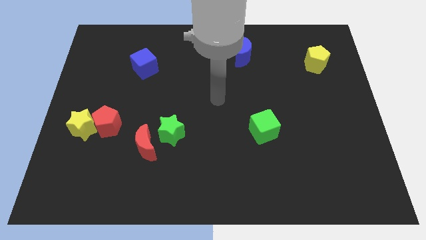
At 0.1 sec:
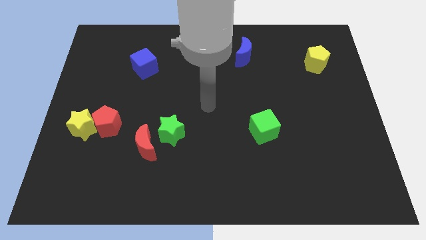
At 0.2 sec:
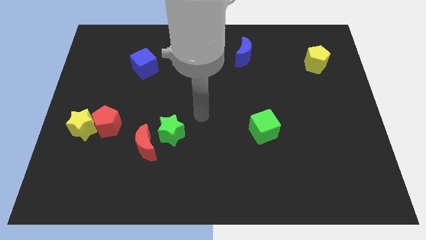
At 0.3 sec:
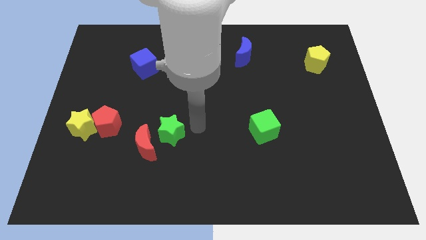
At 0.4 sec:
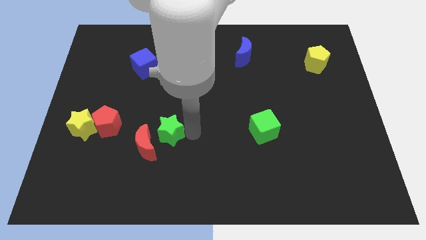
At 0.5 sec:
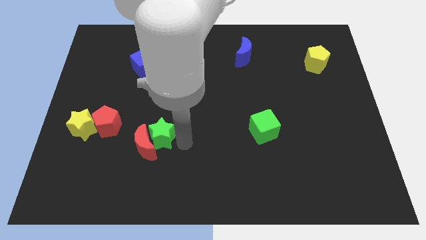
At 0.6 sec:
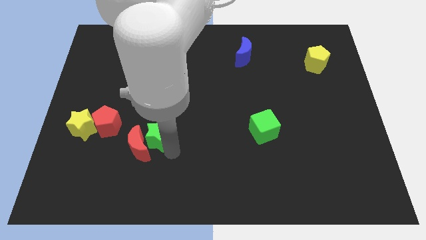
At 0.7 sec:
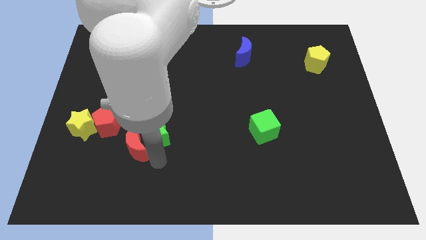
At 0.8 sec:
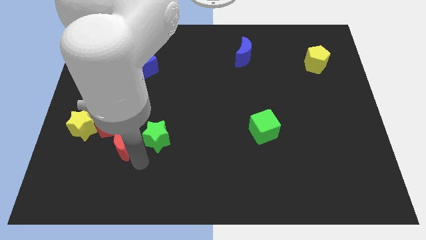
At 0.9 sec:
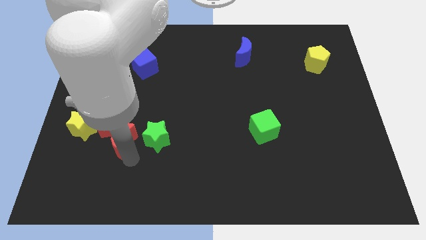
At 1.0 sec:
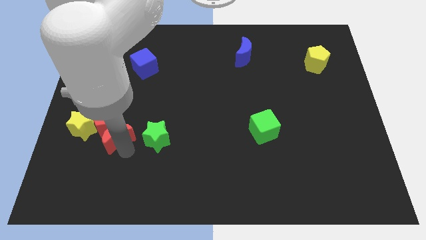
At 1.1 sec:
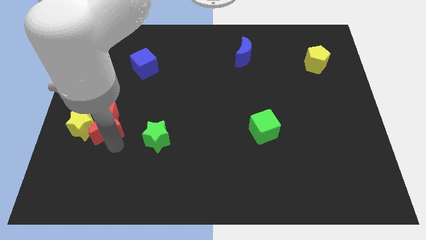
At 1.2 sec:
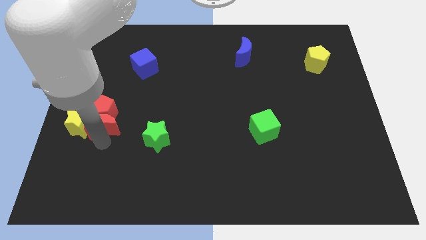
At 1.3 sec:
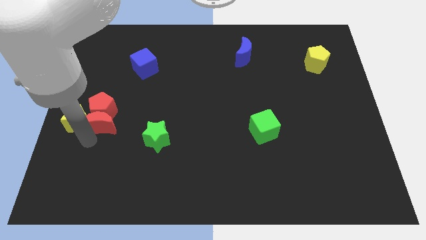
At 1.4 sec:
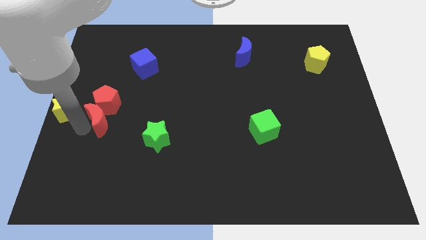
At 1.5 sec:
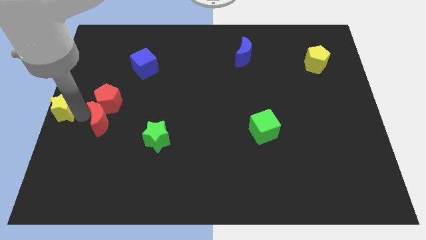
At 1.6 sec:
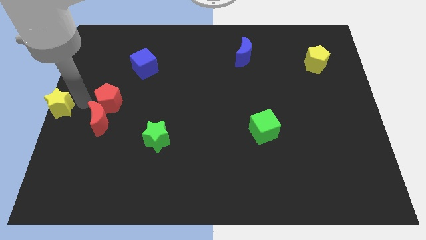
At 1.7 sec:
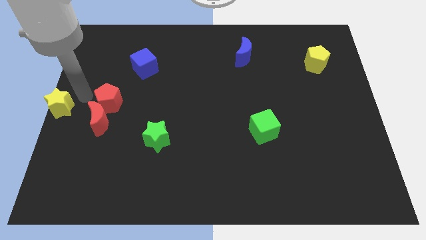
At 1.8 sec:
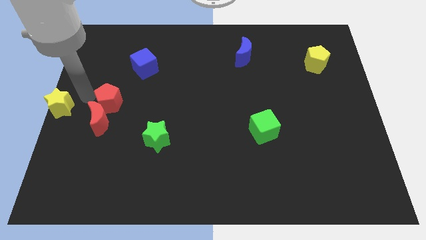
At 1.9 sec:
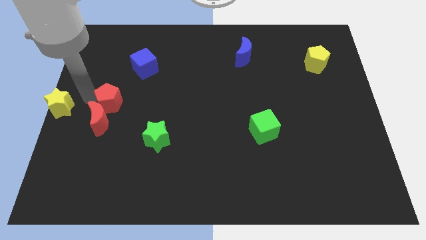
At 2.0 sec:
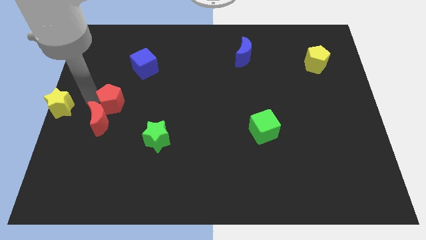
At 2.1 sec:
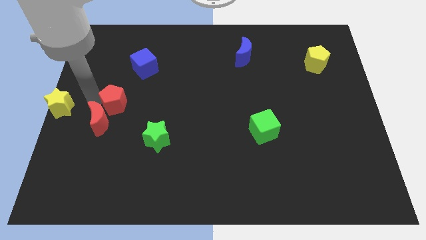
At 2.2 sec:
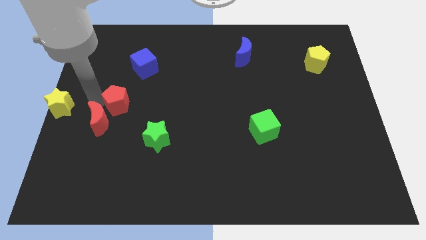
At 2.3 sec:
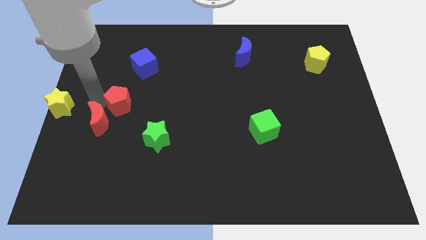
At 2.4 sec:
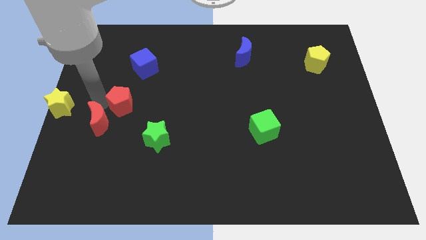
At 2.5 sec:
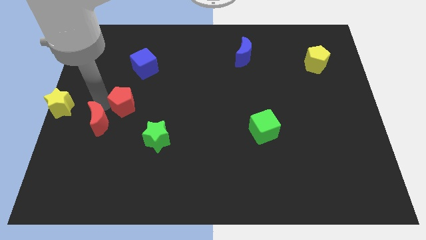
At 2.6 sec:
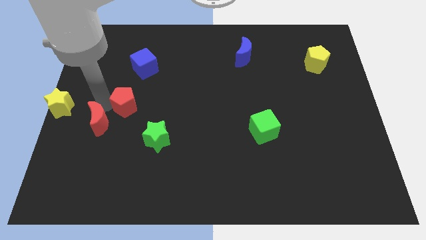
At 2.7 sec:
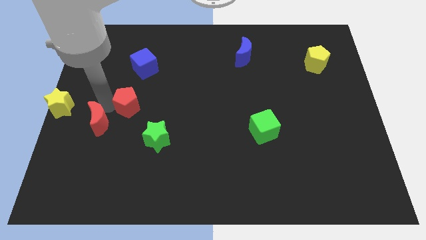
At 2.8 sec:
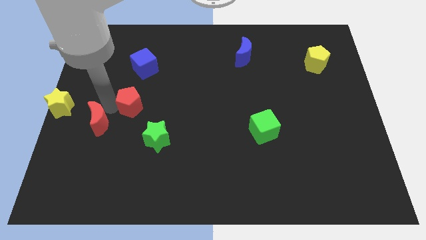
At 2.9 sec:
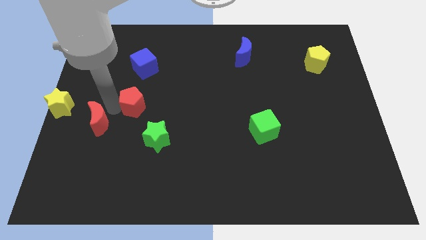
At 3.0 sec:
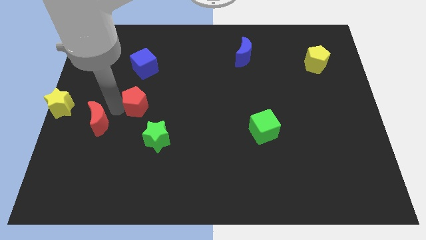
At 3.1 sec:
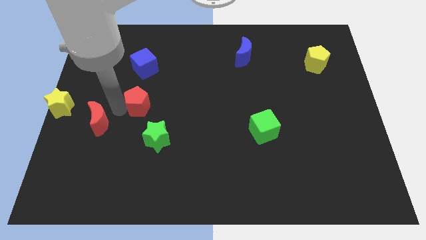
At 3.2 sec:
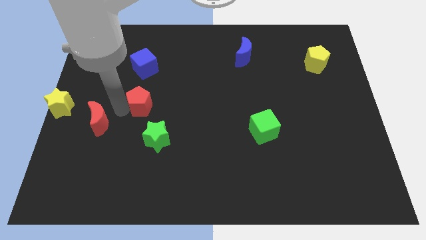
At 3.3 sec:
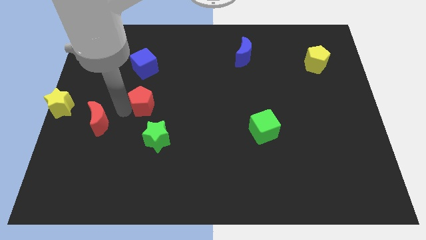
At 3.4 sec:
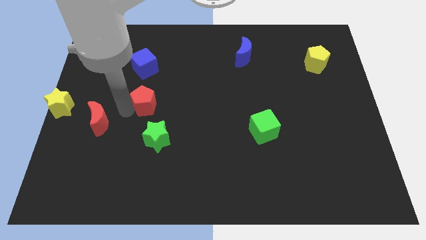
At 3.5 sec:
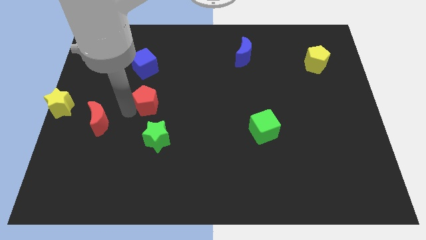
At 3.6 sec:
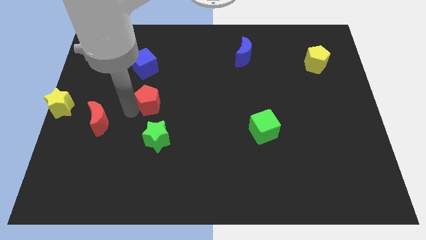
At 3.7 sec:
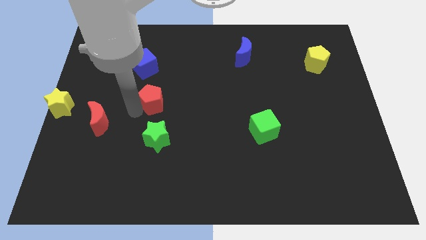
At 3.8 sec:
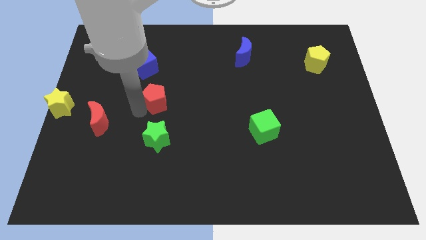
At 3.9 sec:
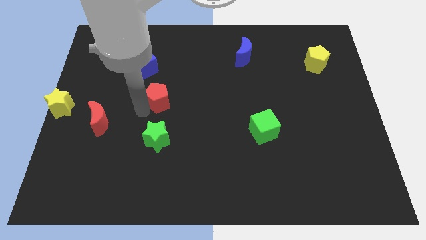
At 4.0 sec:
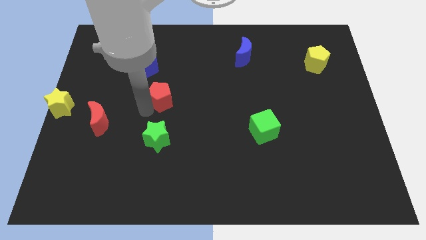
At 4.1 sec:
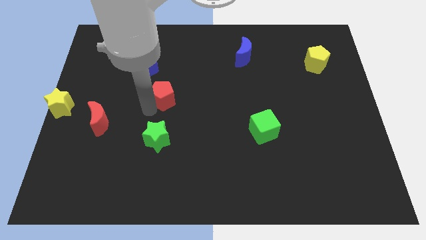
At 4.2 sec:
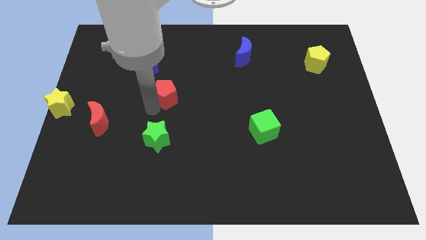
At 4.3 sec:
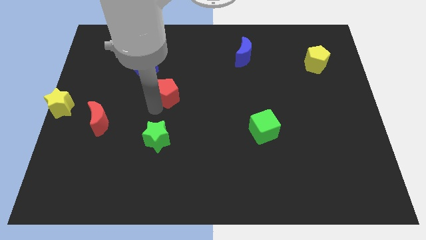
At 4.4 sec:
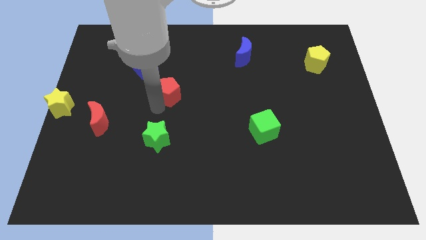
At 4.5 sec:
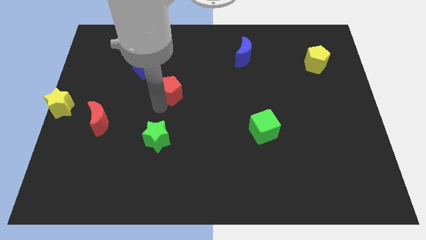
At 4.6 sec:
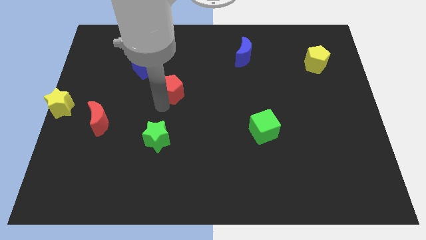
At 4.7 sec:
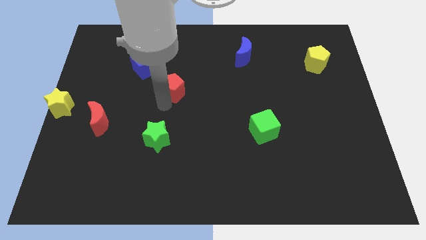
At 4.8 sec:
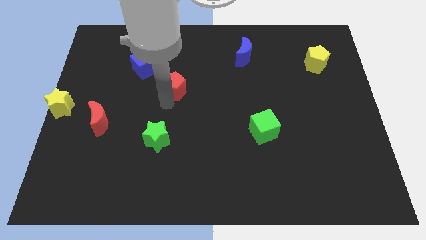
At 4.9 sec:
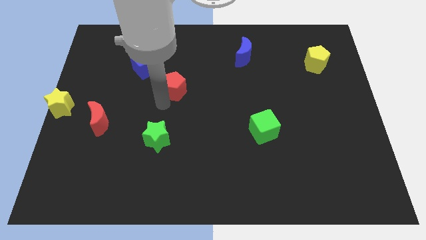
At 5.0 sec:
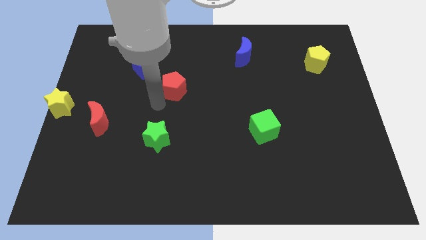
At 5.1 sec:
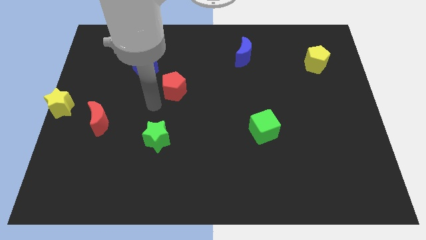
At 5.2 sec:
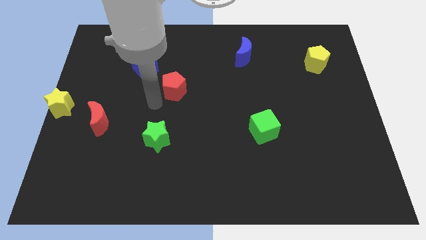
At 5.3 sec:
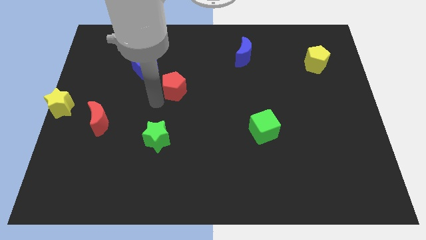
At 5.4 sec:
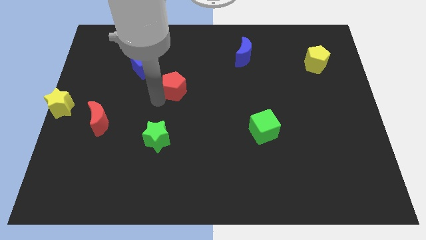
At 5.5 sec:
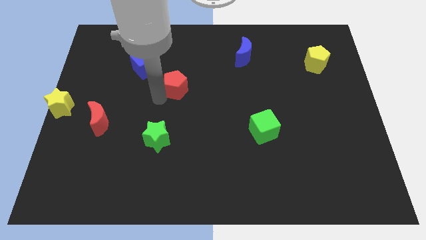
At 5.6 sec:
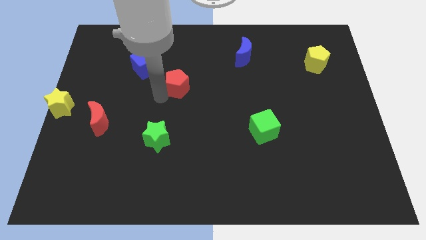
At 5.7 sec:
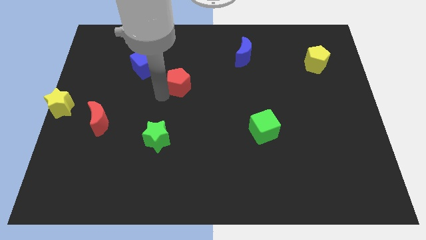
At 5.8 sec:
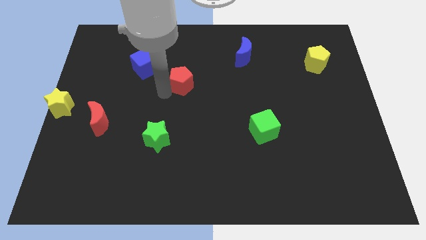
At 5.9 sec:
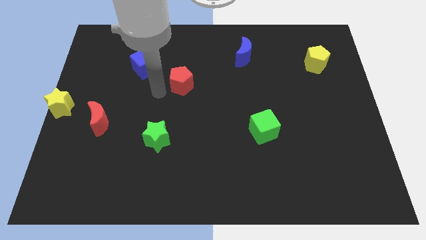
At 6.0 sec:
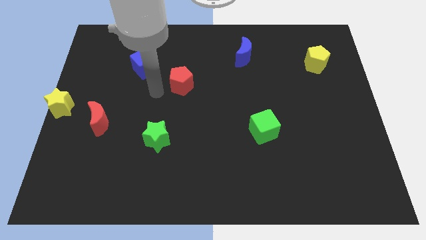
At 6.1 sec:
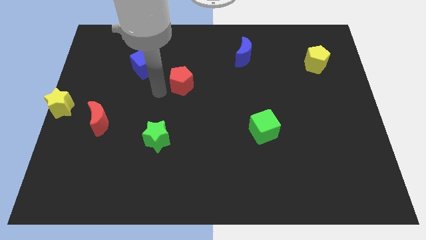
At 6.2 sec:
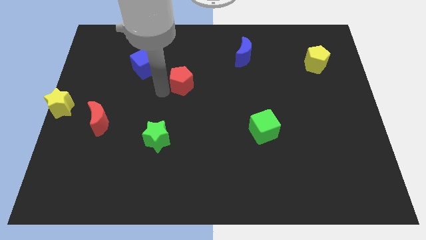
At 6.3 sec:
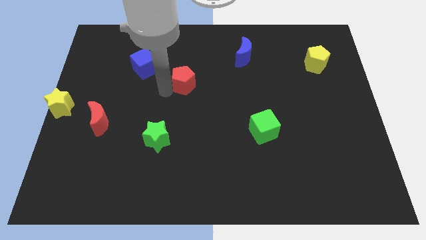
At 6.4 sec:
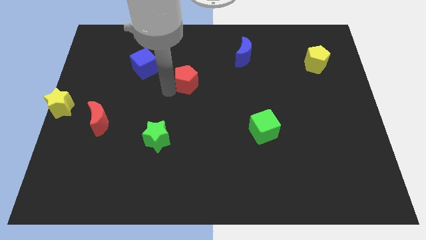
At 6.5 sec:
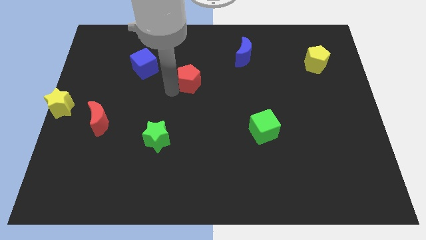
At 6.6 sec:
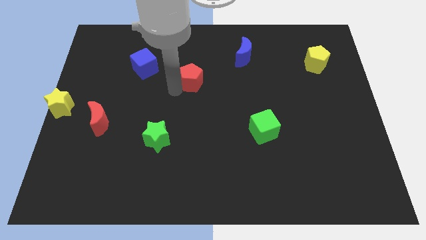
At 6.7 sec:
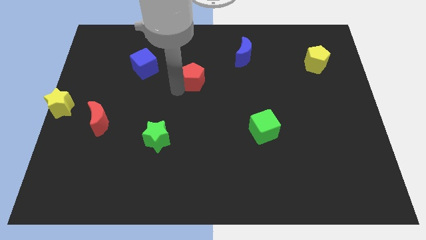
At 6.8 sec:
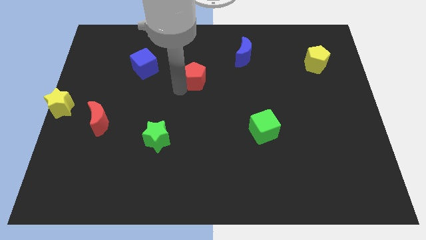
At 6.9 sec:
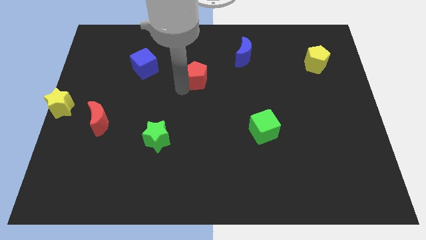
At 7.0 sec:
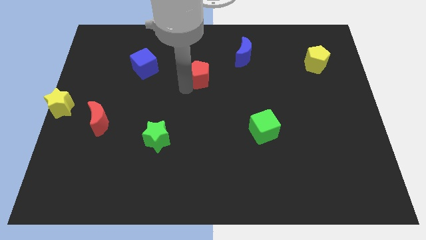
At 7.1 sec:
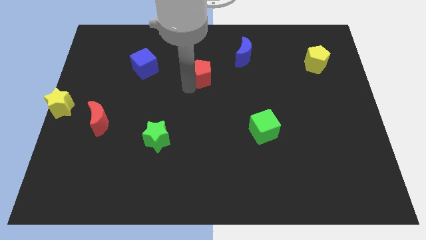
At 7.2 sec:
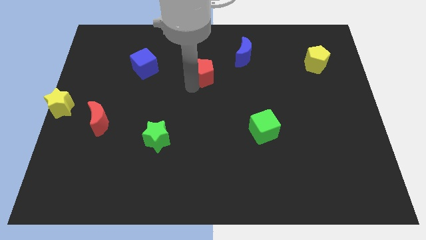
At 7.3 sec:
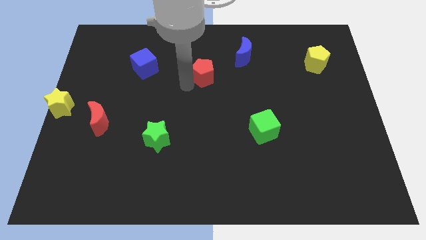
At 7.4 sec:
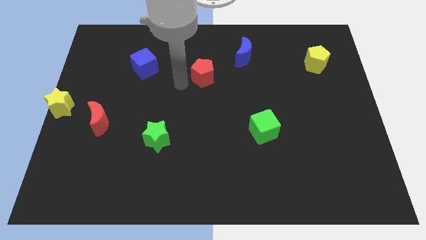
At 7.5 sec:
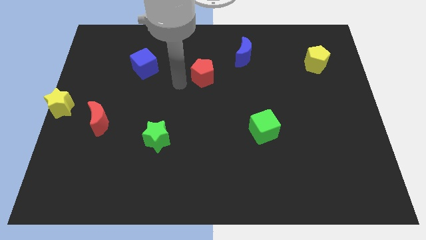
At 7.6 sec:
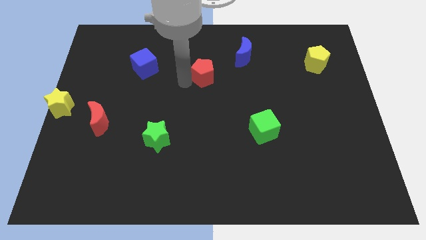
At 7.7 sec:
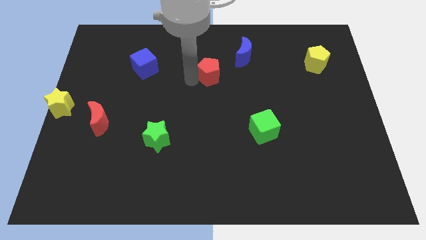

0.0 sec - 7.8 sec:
slide the red pentagon to the bottom left side of the blue moon
